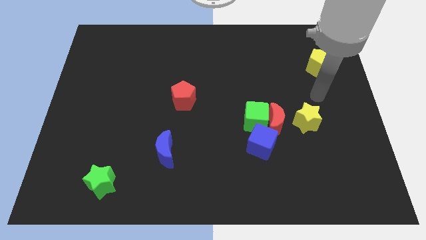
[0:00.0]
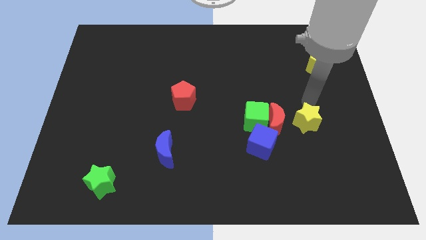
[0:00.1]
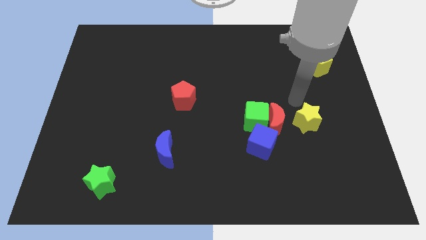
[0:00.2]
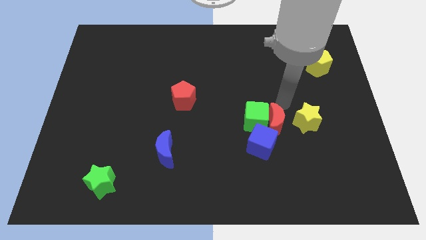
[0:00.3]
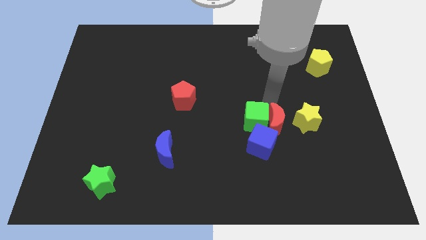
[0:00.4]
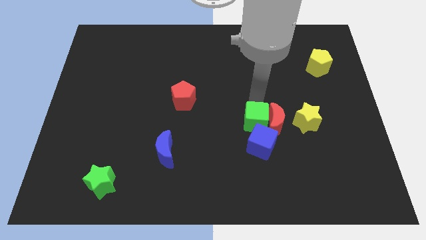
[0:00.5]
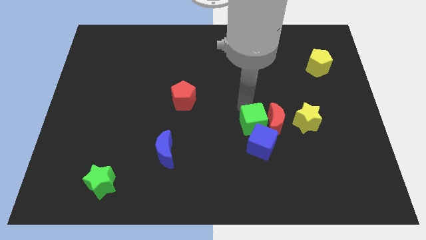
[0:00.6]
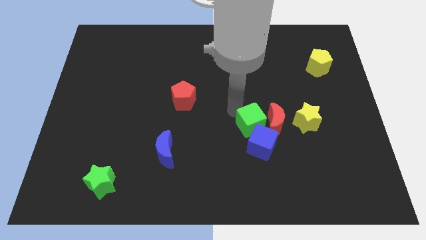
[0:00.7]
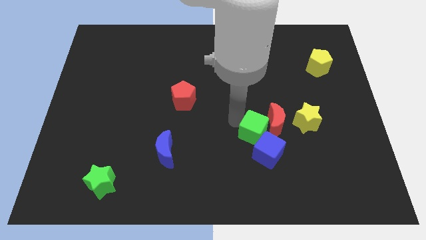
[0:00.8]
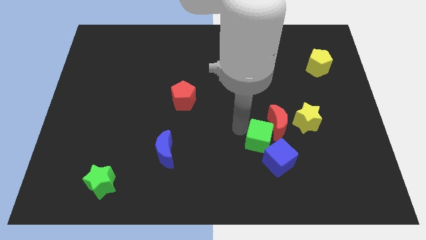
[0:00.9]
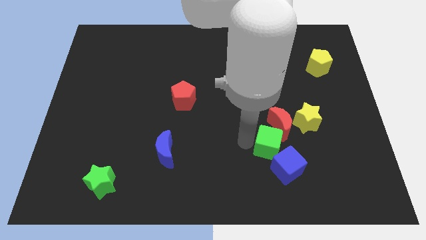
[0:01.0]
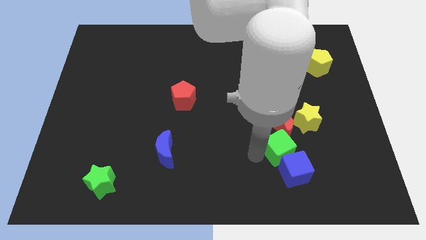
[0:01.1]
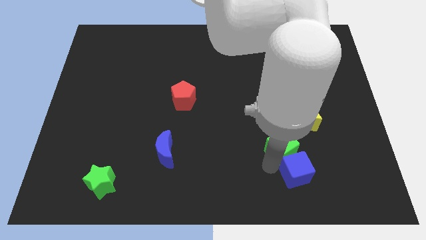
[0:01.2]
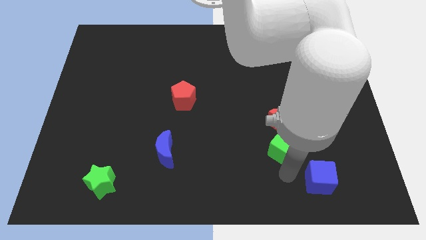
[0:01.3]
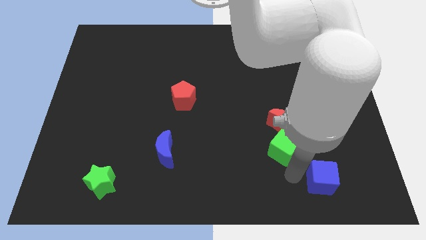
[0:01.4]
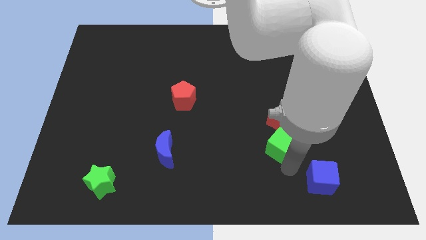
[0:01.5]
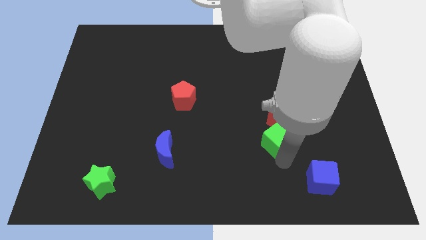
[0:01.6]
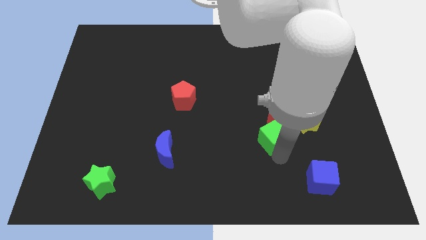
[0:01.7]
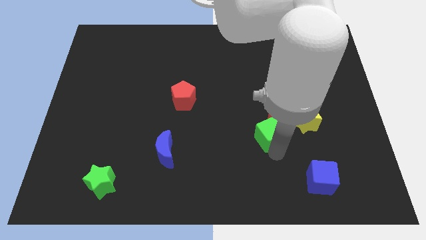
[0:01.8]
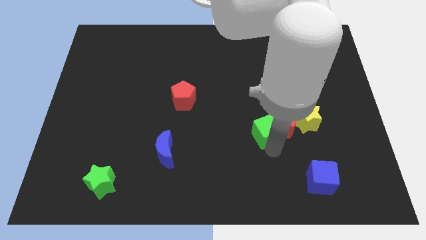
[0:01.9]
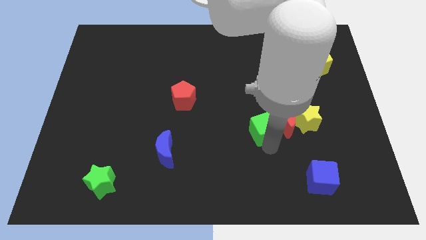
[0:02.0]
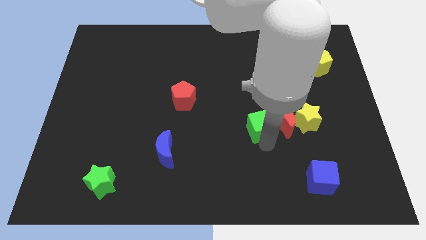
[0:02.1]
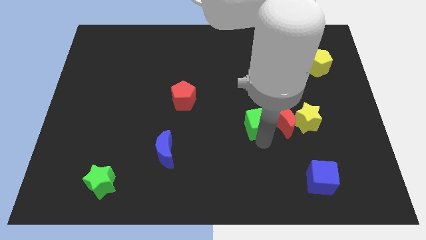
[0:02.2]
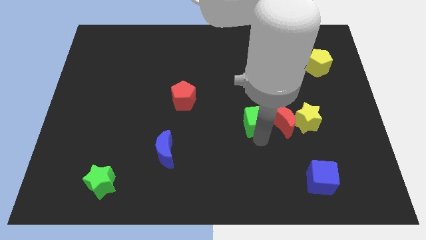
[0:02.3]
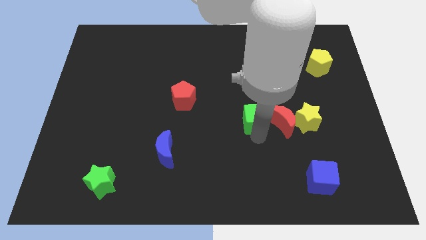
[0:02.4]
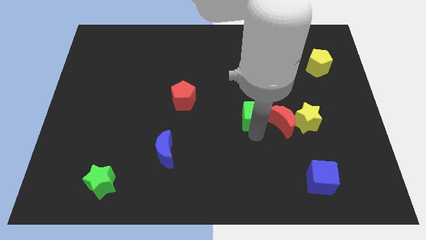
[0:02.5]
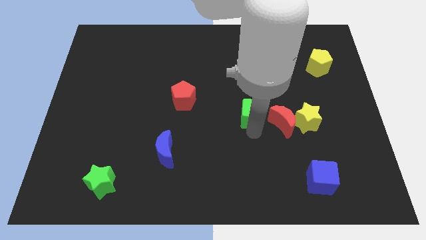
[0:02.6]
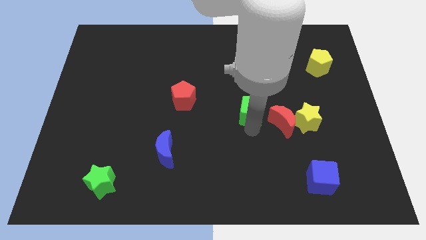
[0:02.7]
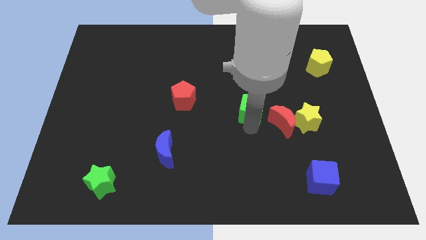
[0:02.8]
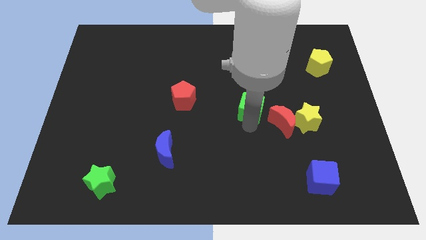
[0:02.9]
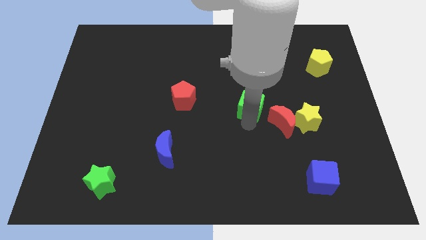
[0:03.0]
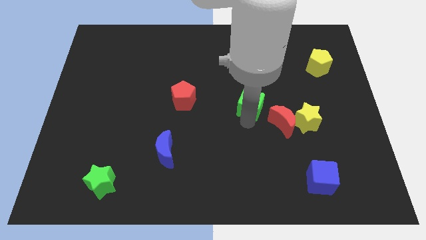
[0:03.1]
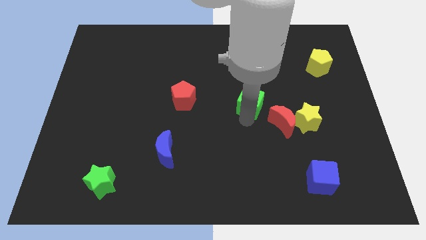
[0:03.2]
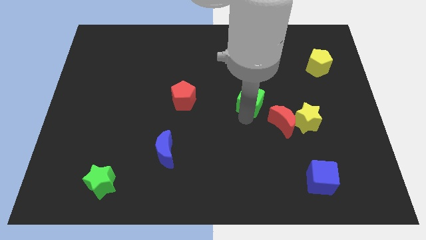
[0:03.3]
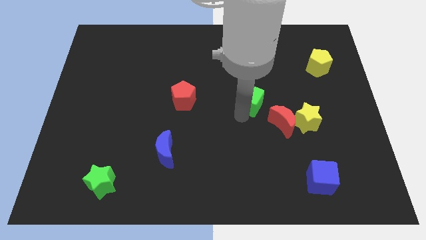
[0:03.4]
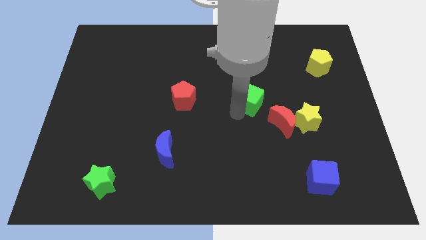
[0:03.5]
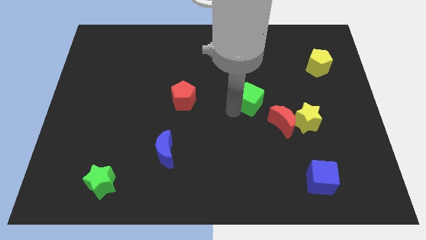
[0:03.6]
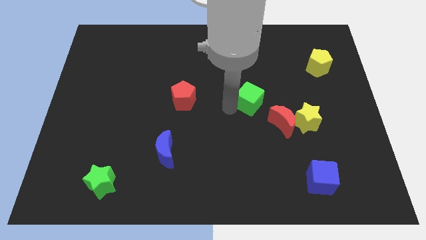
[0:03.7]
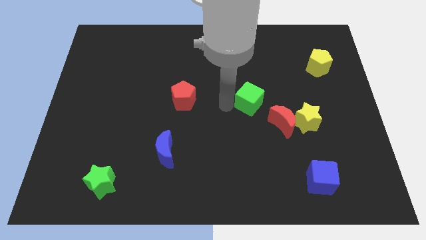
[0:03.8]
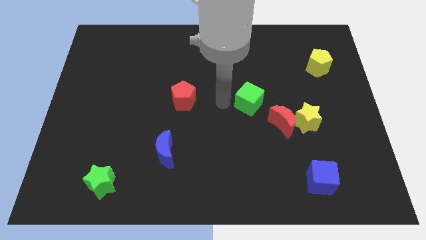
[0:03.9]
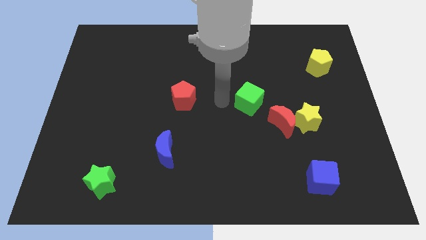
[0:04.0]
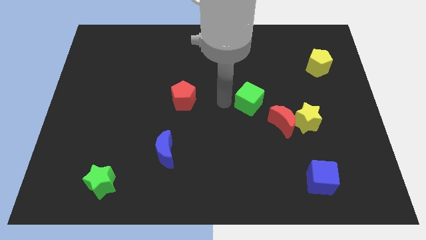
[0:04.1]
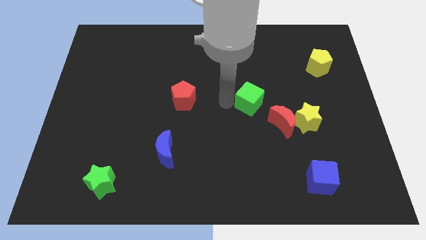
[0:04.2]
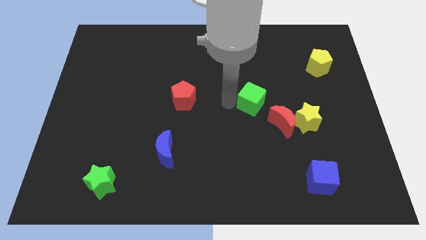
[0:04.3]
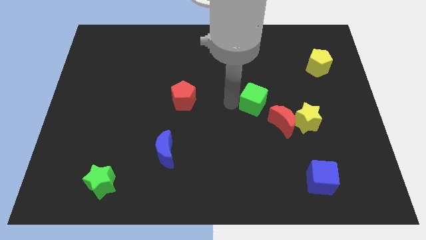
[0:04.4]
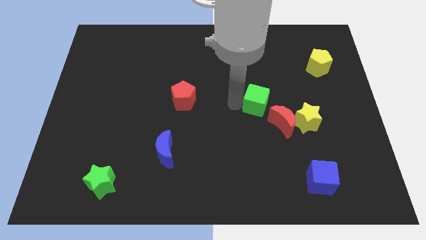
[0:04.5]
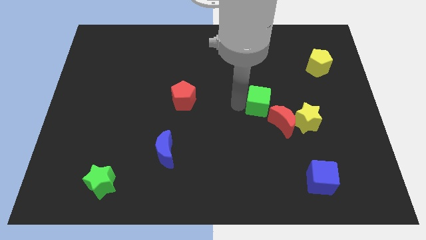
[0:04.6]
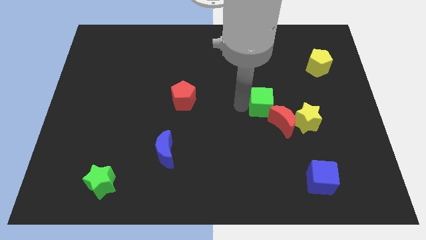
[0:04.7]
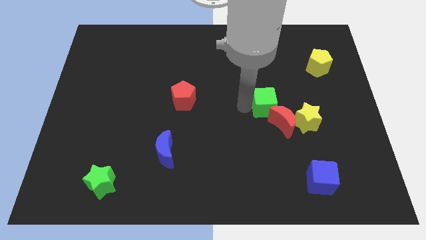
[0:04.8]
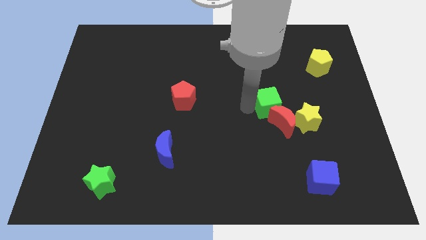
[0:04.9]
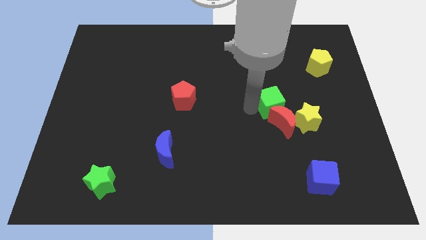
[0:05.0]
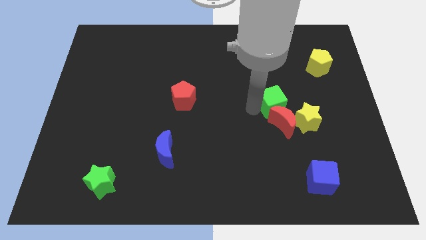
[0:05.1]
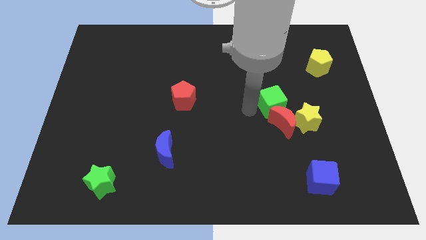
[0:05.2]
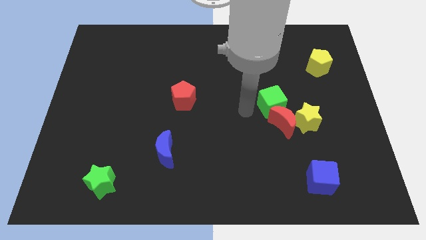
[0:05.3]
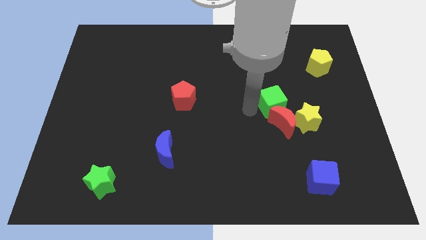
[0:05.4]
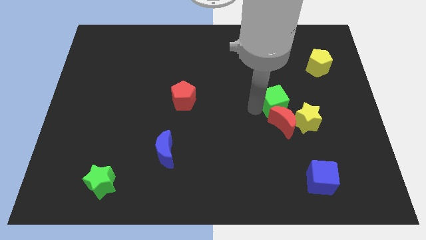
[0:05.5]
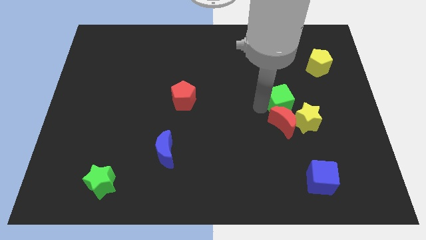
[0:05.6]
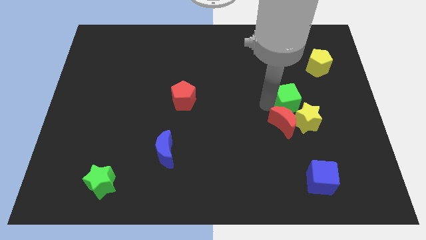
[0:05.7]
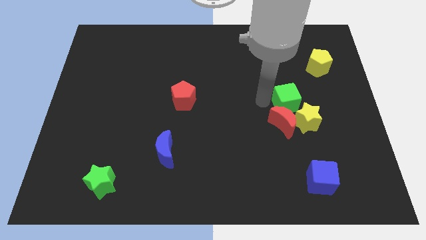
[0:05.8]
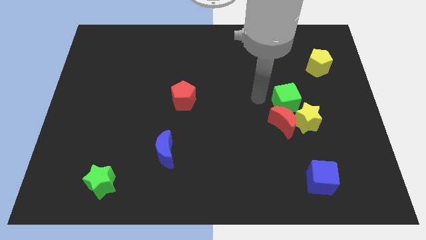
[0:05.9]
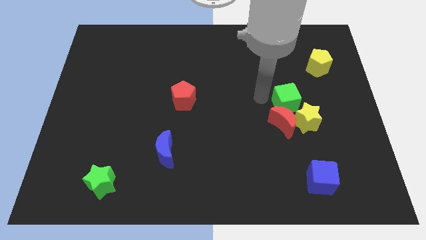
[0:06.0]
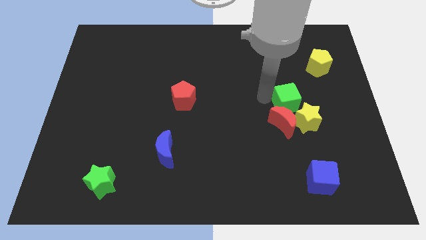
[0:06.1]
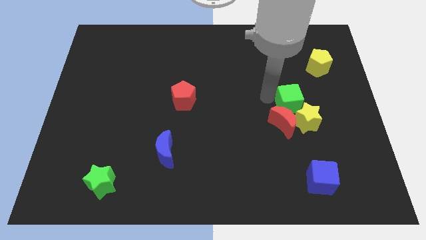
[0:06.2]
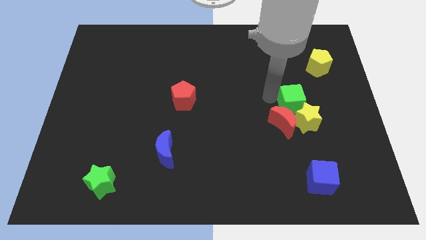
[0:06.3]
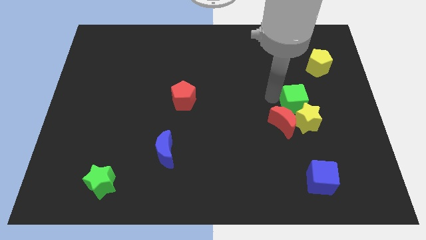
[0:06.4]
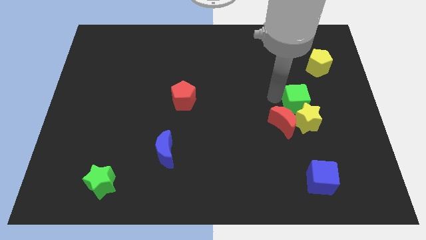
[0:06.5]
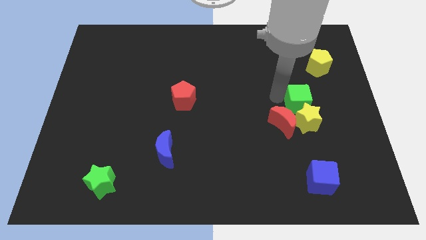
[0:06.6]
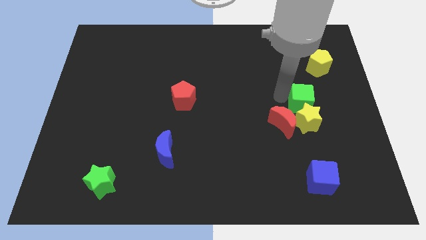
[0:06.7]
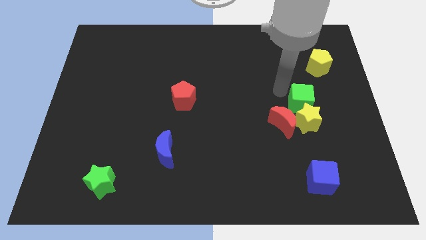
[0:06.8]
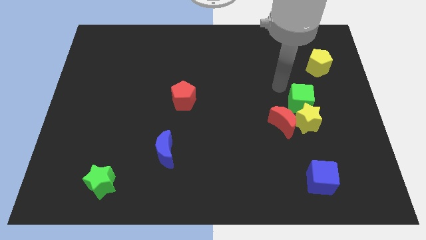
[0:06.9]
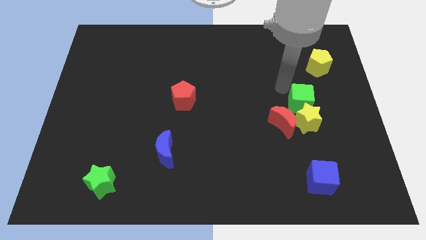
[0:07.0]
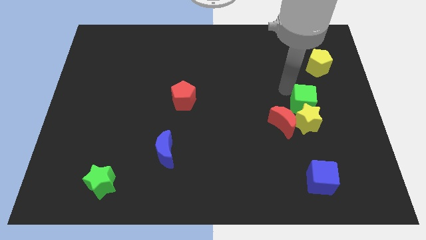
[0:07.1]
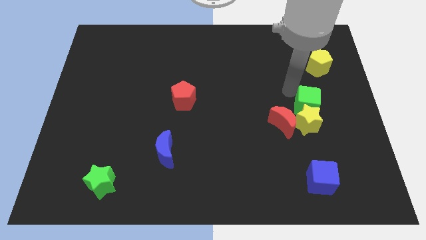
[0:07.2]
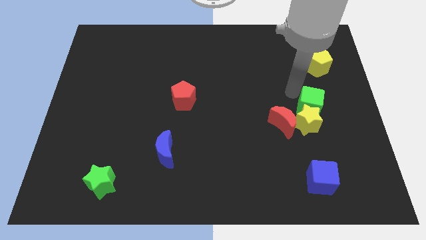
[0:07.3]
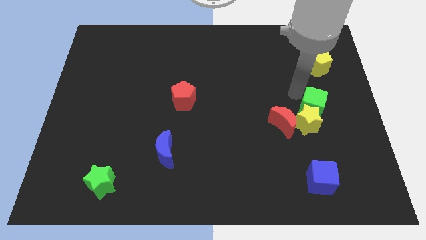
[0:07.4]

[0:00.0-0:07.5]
put the green cube right of the red moon
